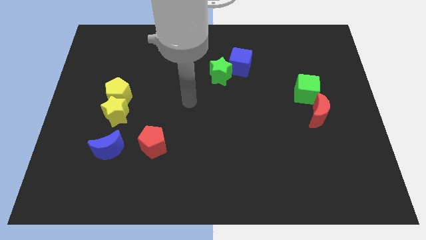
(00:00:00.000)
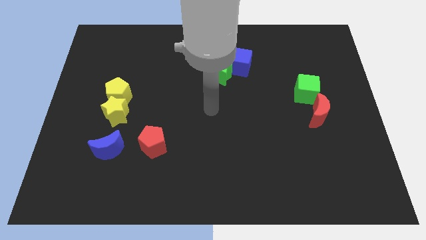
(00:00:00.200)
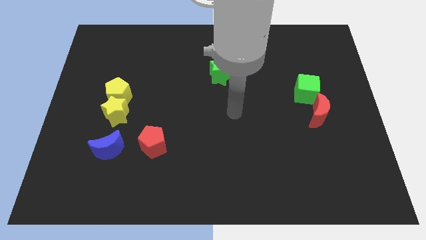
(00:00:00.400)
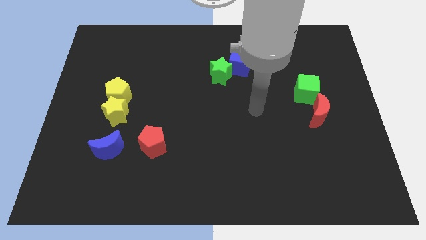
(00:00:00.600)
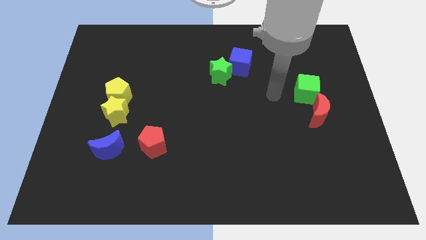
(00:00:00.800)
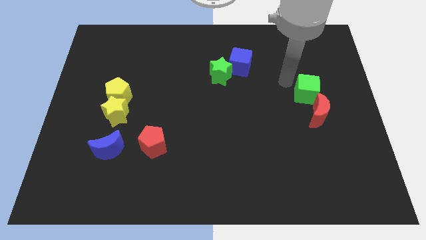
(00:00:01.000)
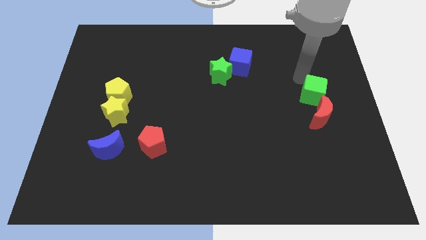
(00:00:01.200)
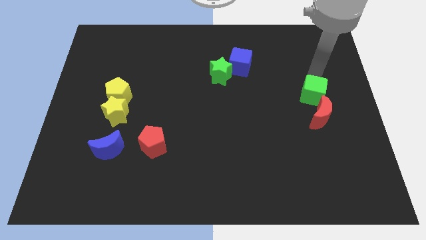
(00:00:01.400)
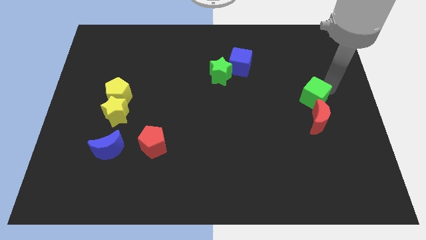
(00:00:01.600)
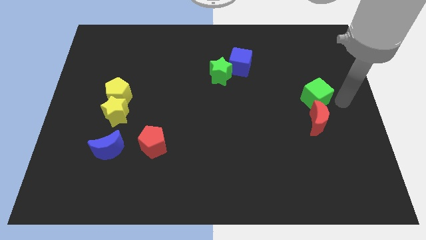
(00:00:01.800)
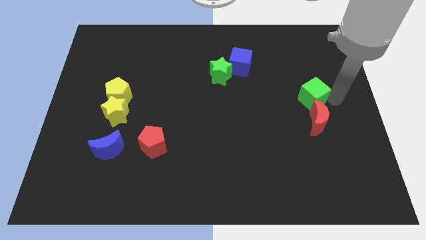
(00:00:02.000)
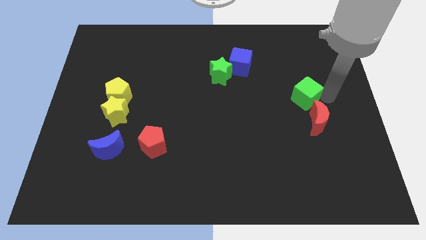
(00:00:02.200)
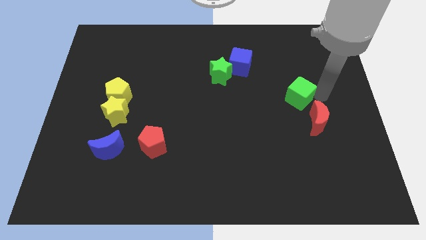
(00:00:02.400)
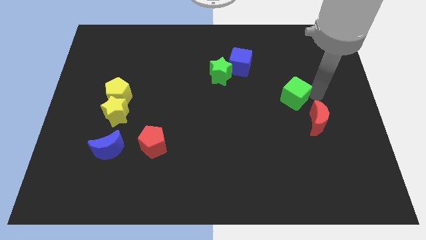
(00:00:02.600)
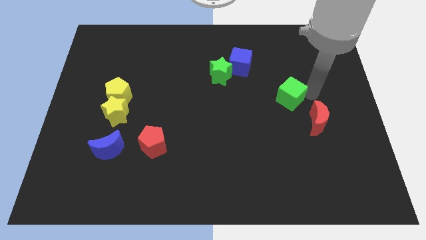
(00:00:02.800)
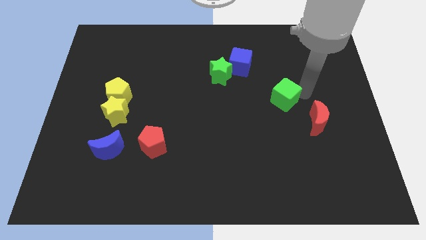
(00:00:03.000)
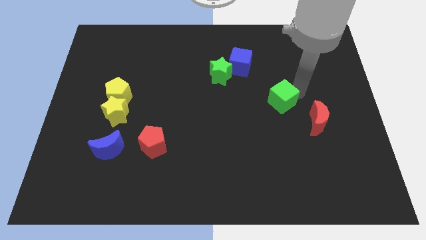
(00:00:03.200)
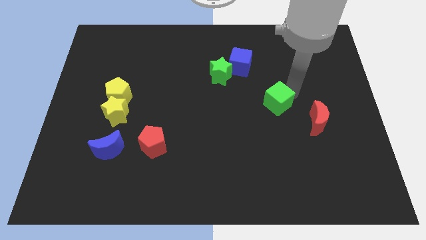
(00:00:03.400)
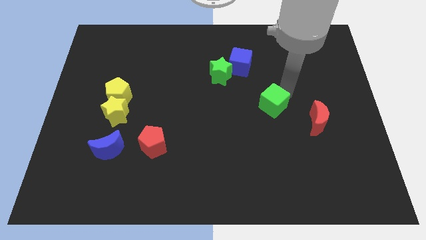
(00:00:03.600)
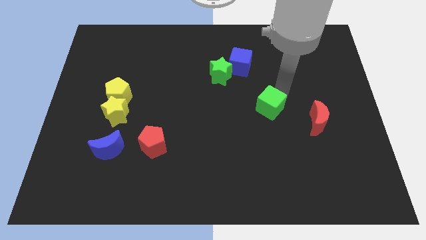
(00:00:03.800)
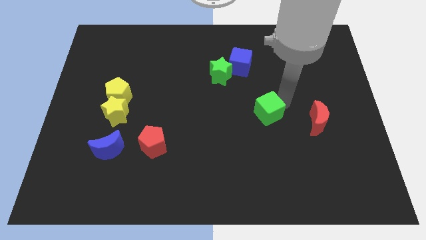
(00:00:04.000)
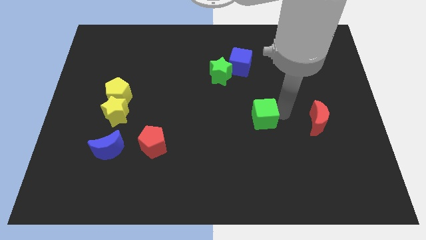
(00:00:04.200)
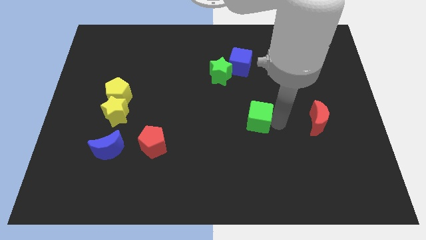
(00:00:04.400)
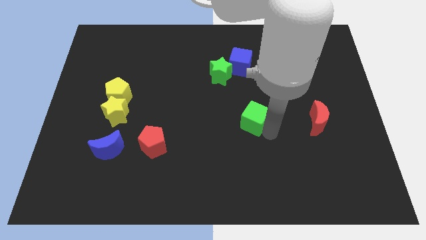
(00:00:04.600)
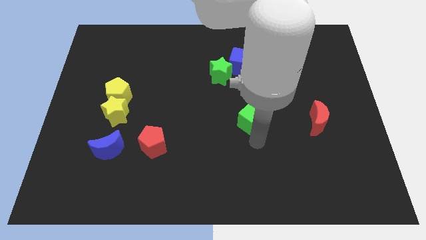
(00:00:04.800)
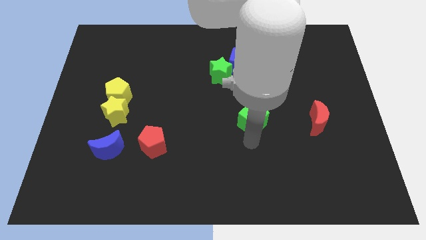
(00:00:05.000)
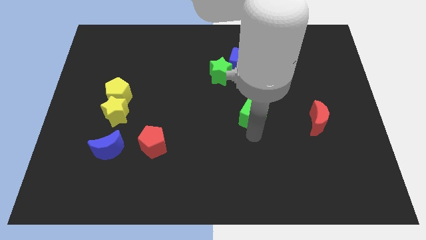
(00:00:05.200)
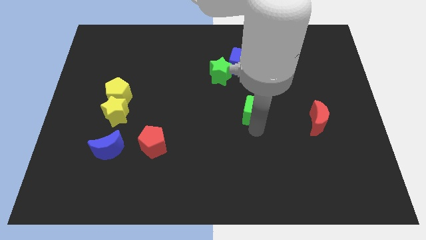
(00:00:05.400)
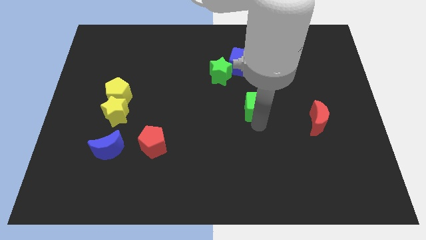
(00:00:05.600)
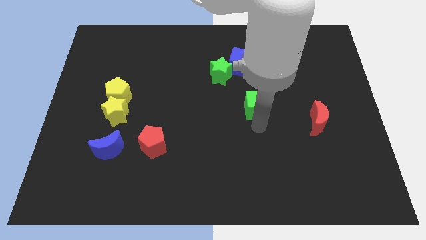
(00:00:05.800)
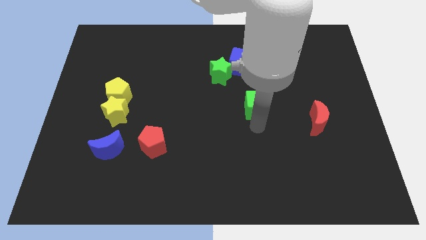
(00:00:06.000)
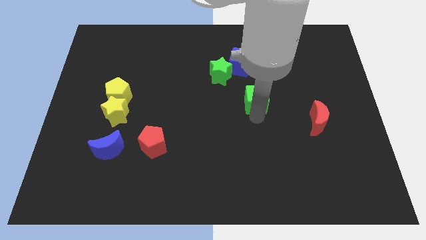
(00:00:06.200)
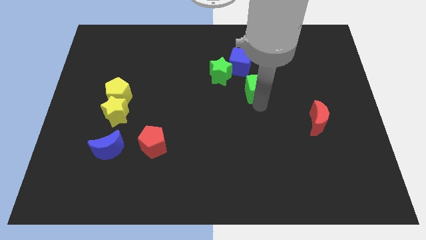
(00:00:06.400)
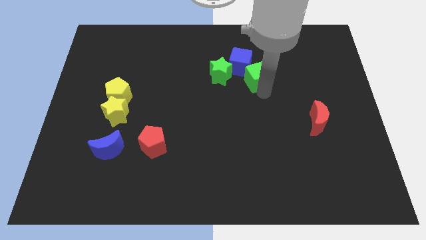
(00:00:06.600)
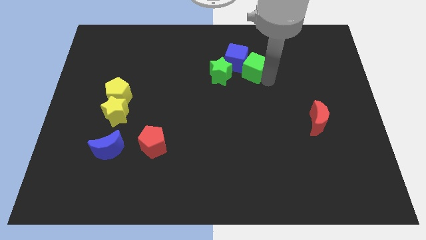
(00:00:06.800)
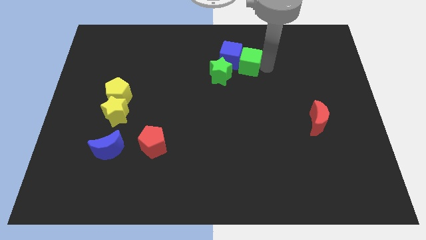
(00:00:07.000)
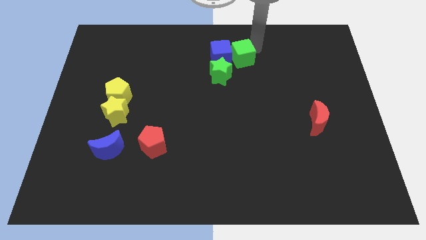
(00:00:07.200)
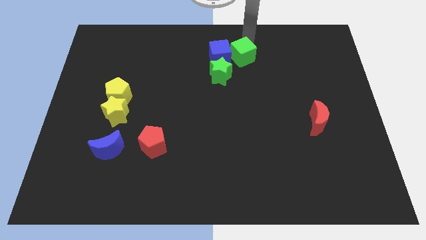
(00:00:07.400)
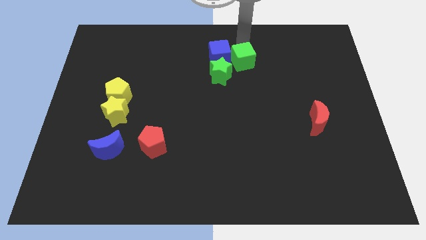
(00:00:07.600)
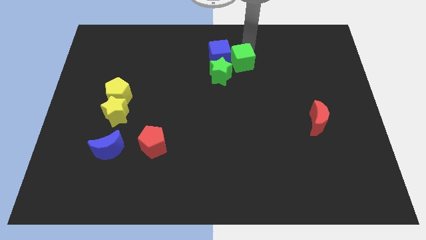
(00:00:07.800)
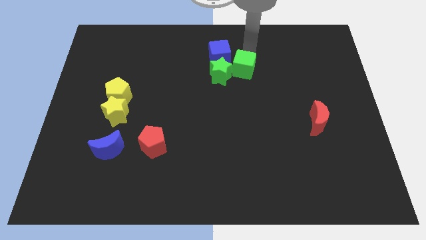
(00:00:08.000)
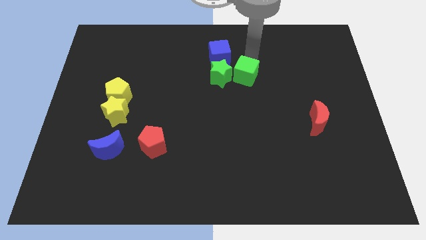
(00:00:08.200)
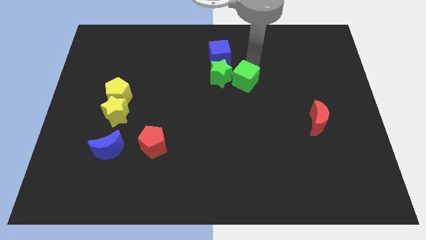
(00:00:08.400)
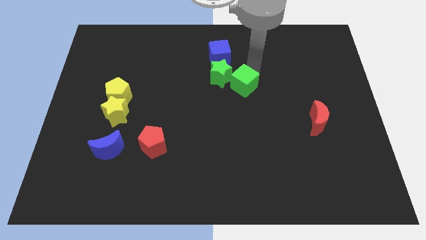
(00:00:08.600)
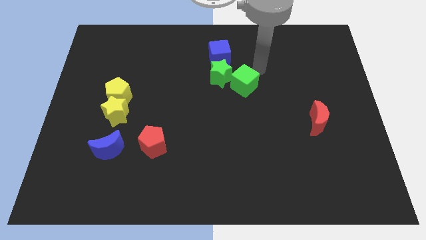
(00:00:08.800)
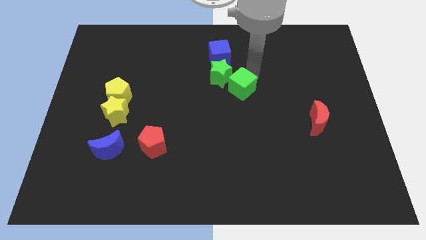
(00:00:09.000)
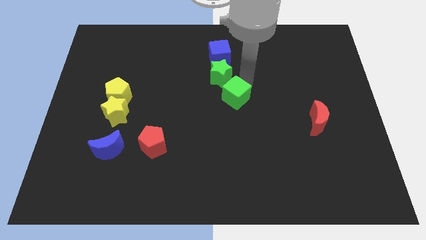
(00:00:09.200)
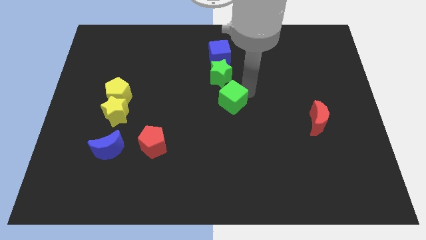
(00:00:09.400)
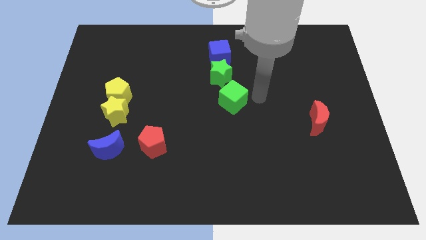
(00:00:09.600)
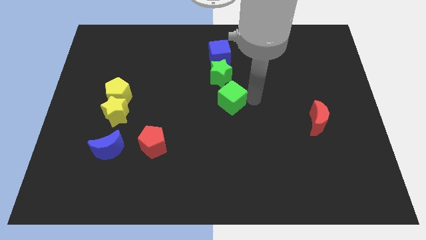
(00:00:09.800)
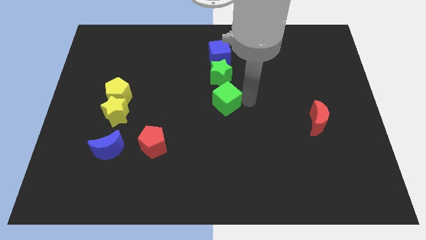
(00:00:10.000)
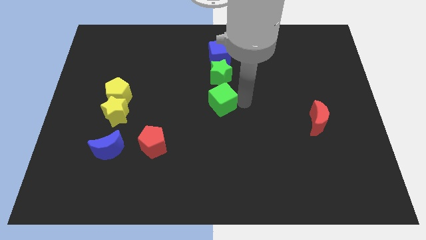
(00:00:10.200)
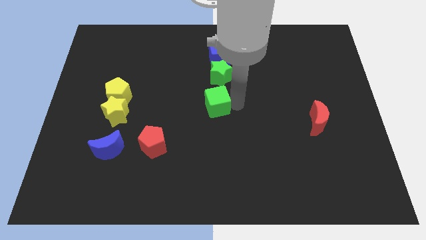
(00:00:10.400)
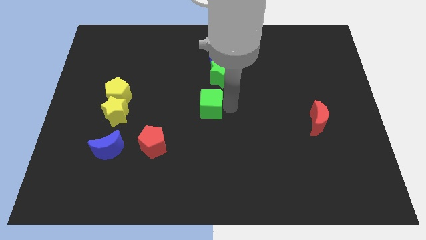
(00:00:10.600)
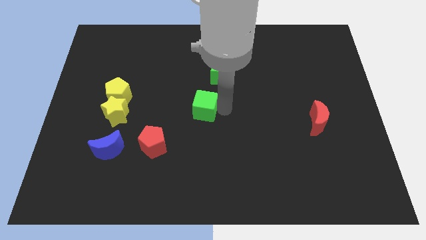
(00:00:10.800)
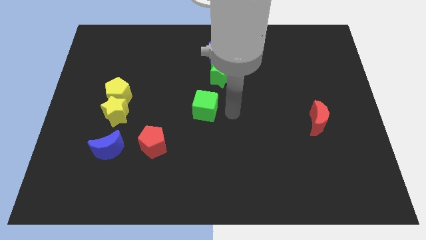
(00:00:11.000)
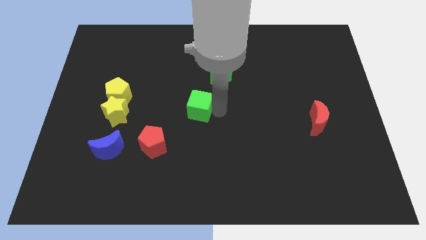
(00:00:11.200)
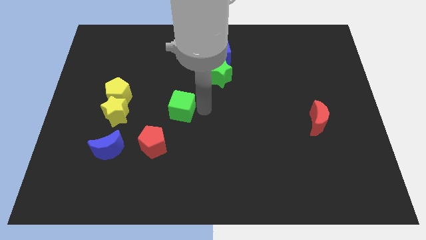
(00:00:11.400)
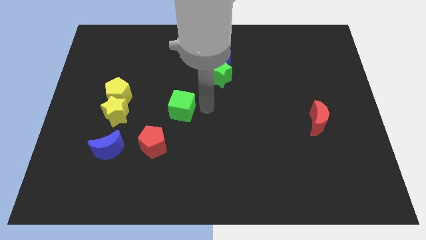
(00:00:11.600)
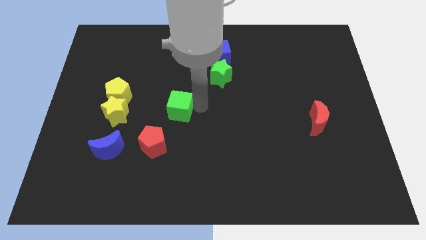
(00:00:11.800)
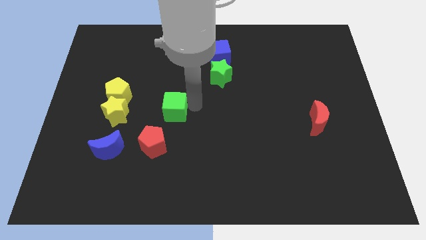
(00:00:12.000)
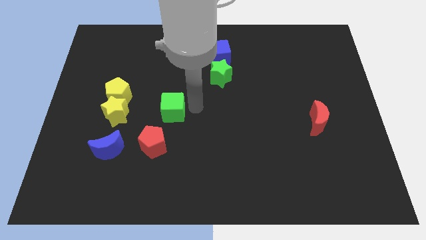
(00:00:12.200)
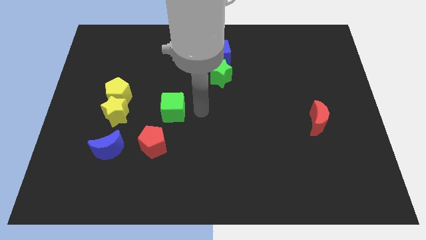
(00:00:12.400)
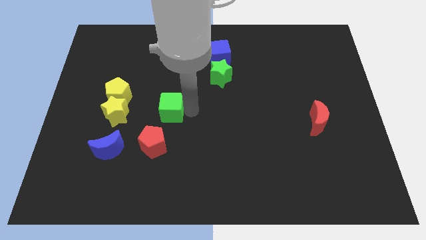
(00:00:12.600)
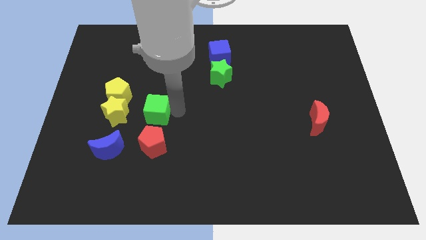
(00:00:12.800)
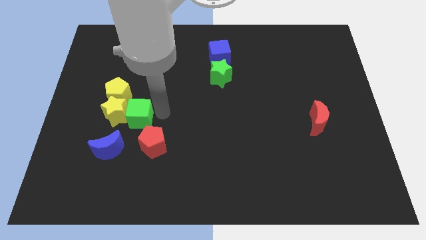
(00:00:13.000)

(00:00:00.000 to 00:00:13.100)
put the green cube next to the yellow star
